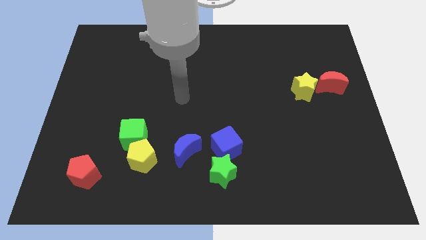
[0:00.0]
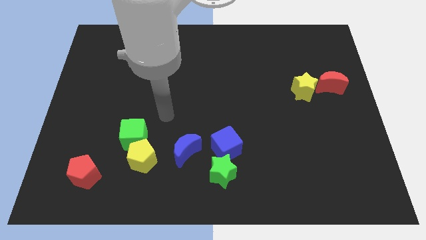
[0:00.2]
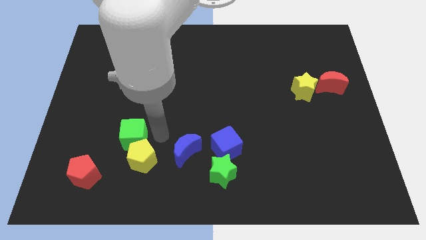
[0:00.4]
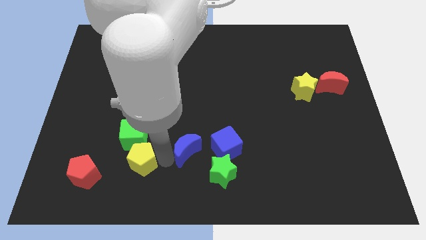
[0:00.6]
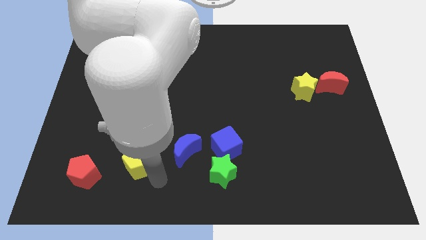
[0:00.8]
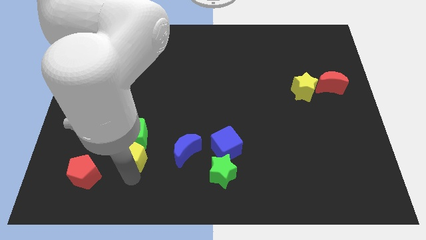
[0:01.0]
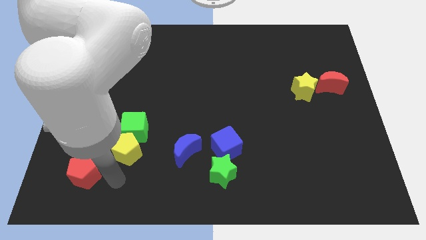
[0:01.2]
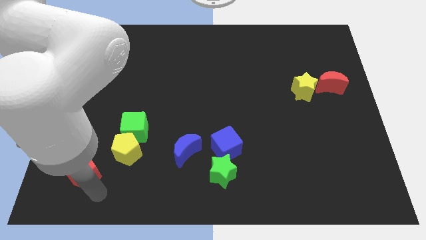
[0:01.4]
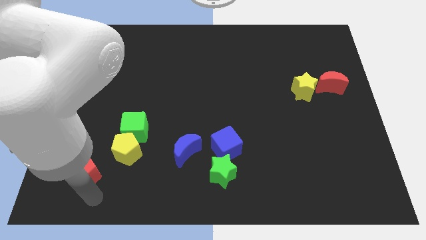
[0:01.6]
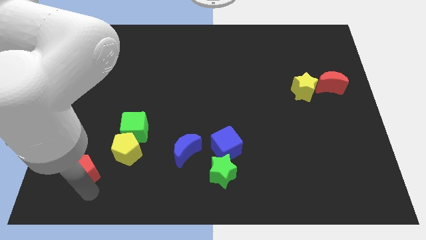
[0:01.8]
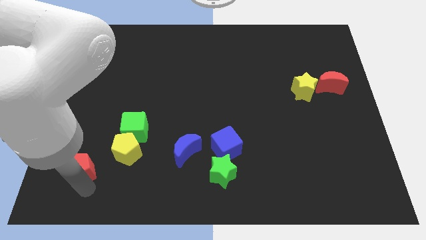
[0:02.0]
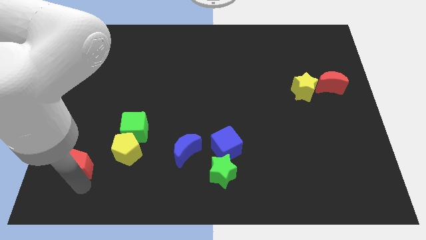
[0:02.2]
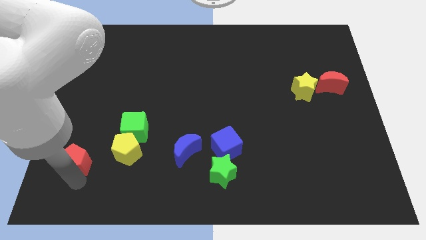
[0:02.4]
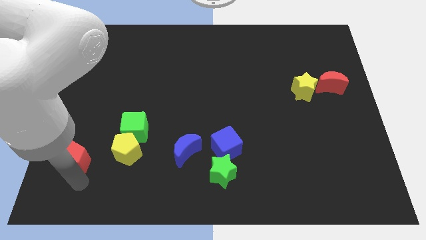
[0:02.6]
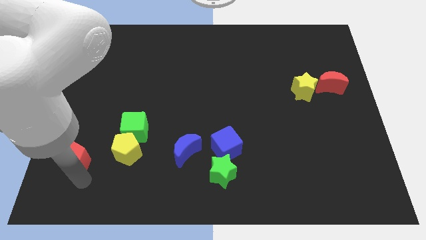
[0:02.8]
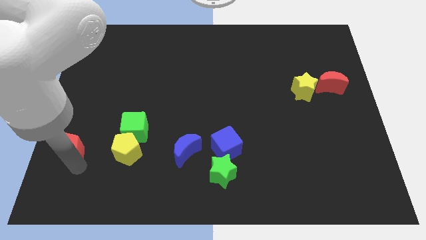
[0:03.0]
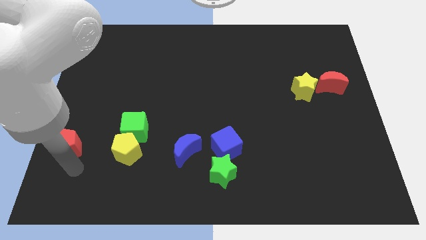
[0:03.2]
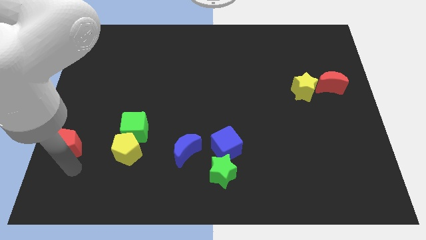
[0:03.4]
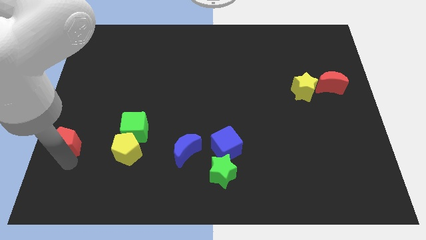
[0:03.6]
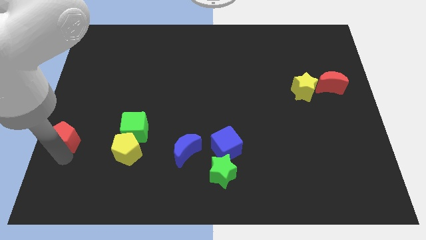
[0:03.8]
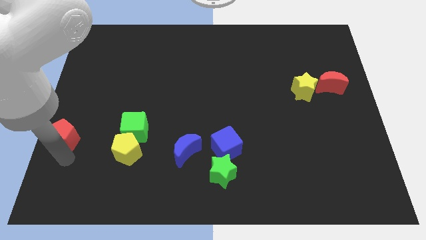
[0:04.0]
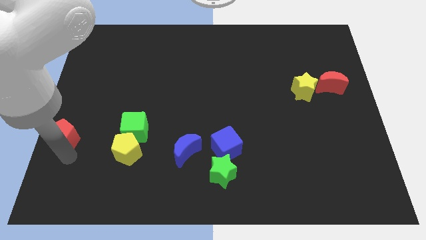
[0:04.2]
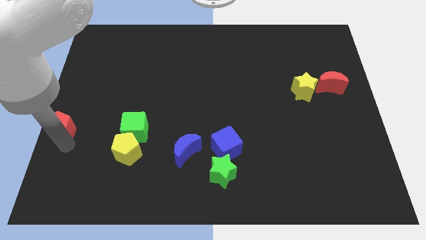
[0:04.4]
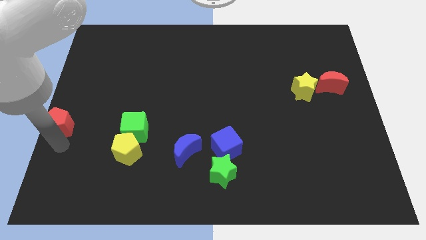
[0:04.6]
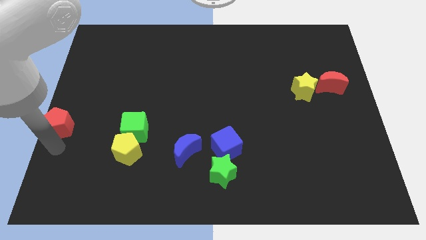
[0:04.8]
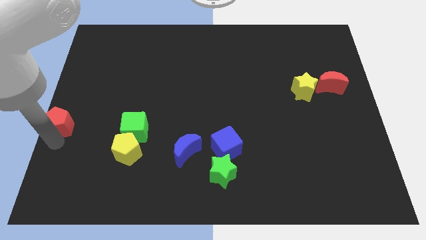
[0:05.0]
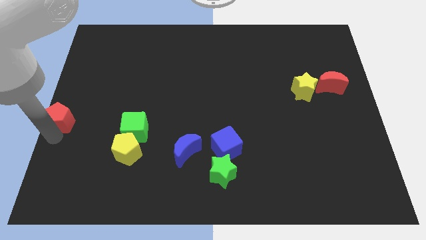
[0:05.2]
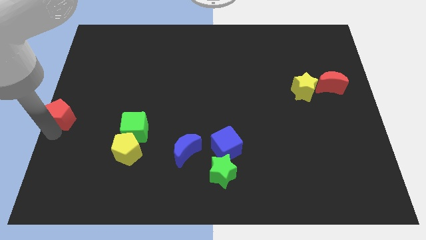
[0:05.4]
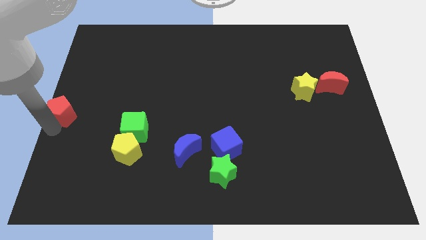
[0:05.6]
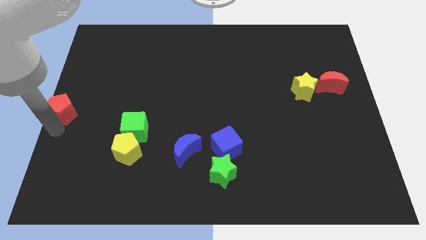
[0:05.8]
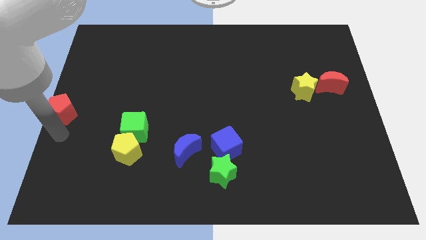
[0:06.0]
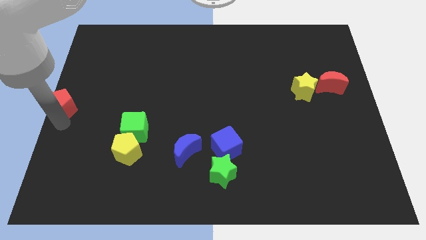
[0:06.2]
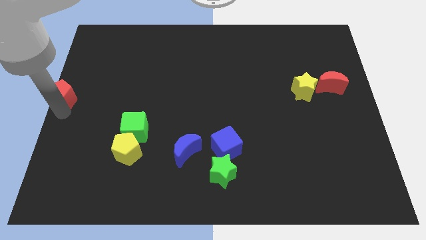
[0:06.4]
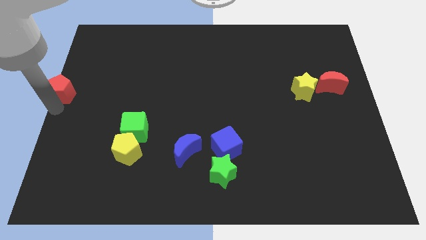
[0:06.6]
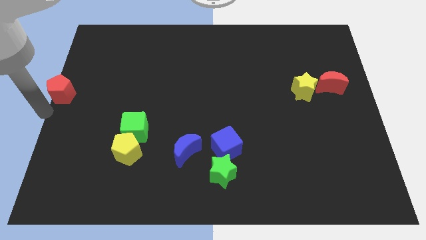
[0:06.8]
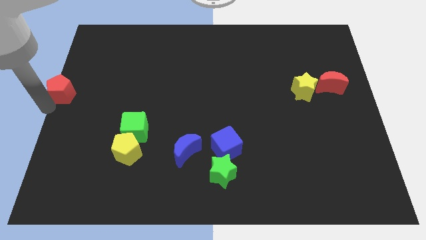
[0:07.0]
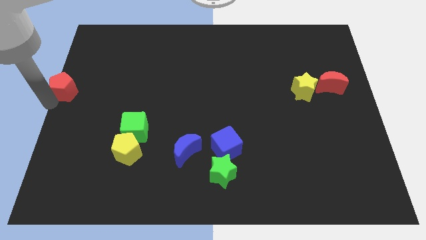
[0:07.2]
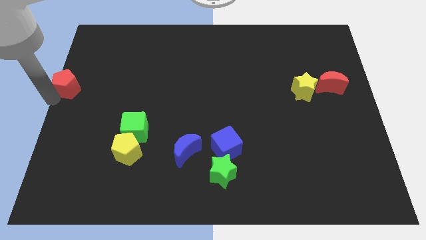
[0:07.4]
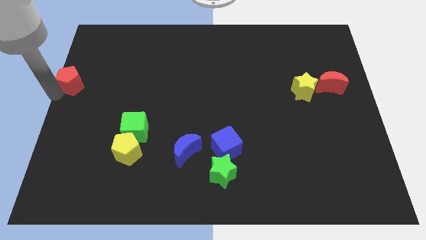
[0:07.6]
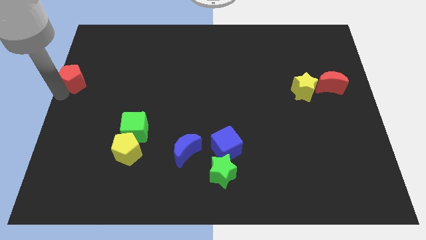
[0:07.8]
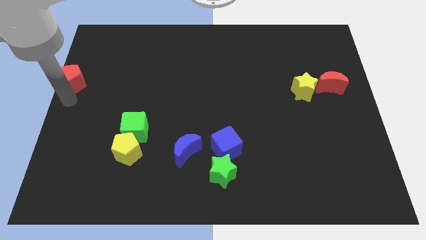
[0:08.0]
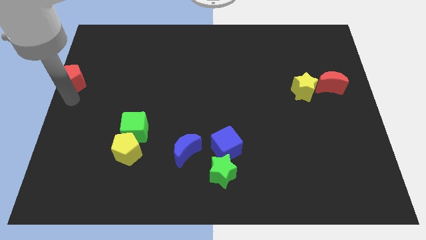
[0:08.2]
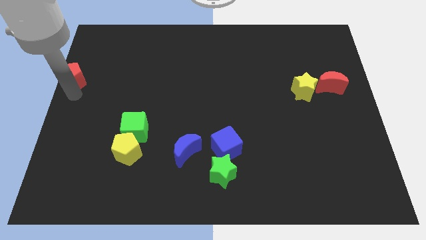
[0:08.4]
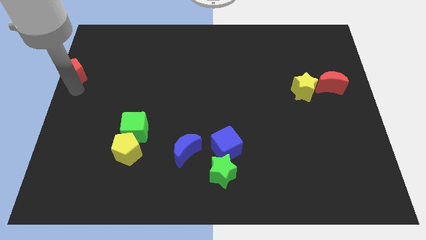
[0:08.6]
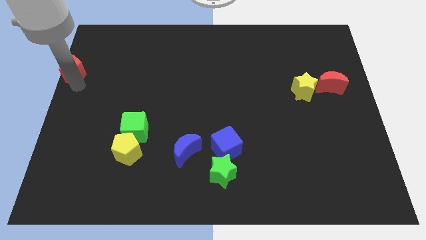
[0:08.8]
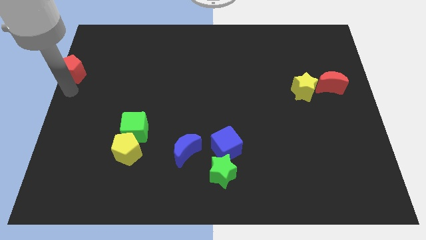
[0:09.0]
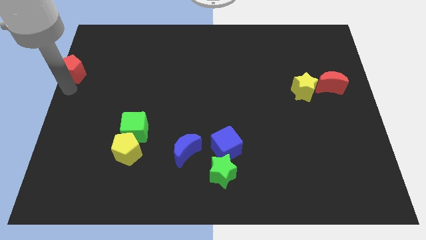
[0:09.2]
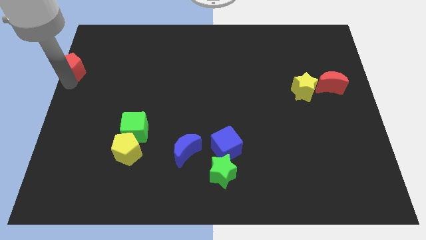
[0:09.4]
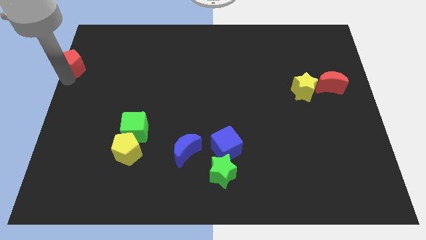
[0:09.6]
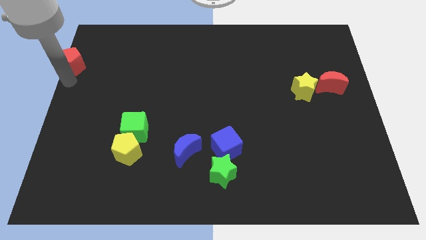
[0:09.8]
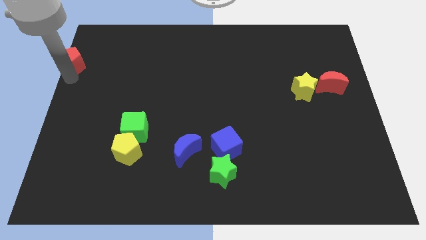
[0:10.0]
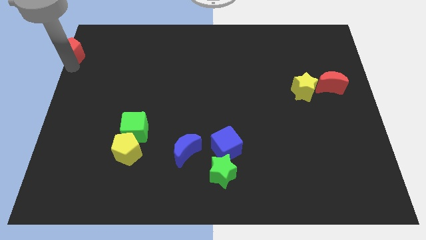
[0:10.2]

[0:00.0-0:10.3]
push the red pentagon to the top left corner

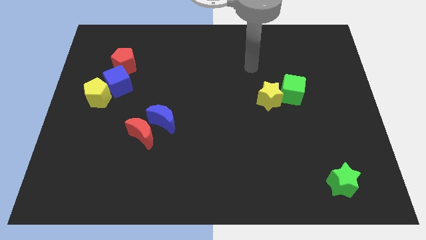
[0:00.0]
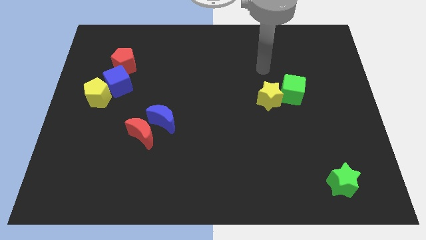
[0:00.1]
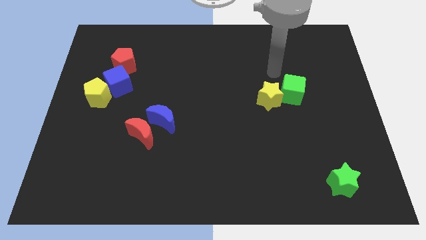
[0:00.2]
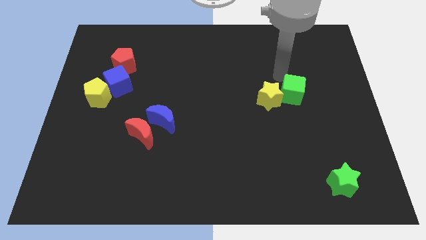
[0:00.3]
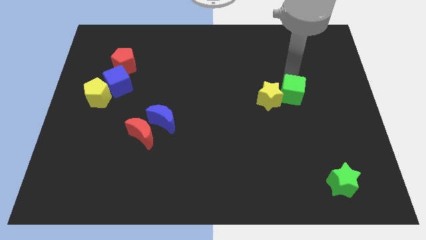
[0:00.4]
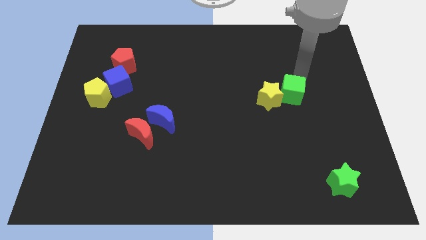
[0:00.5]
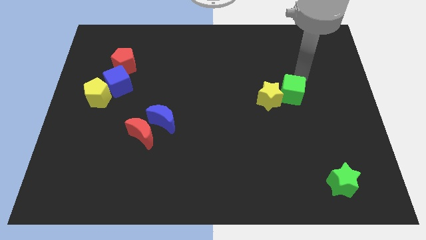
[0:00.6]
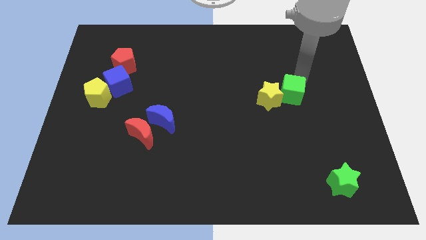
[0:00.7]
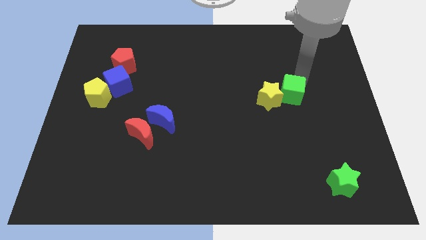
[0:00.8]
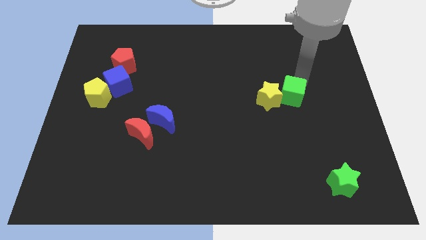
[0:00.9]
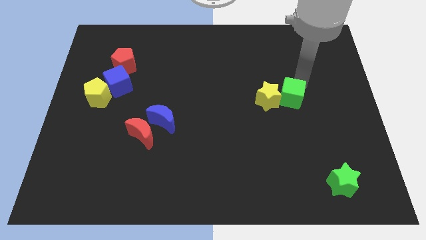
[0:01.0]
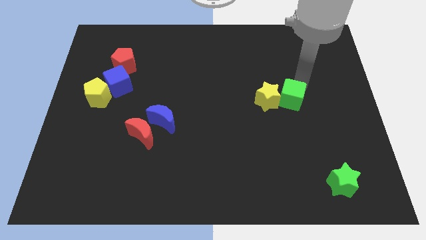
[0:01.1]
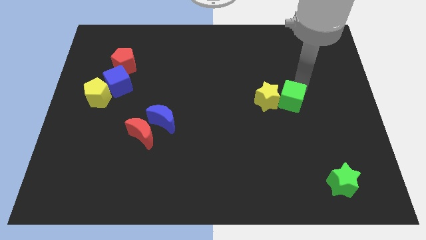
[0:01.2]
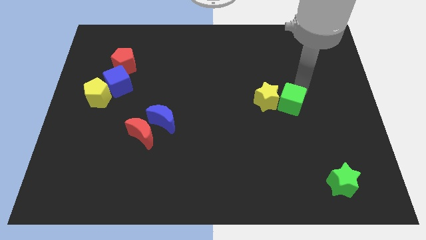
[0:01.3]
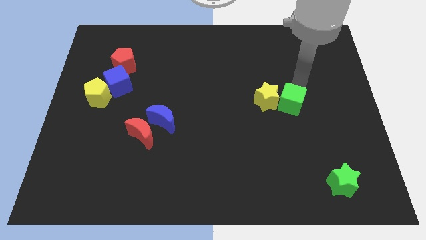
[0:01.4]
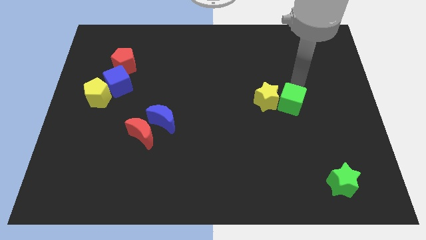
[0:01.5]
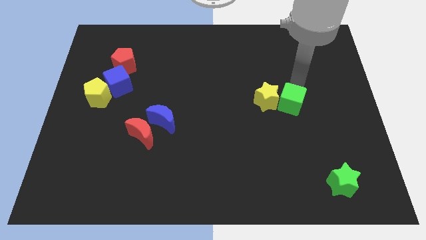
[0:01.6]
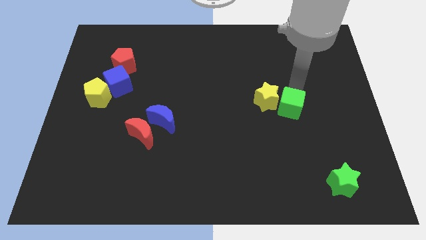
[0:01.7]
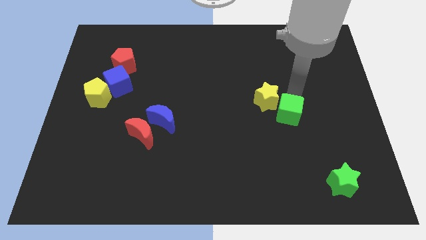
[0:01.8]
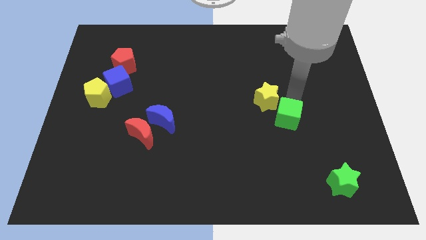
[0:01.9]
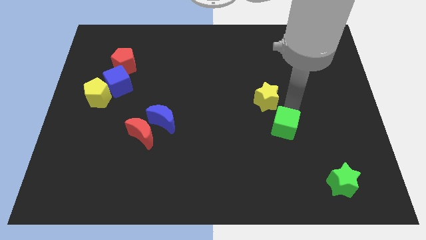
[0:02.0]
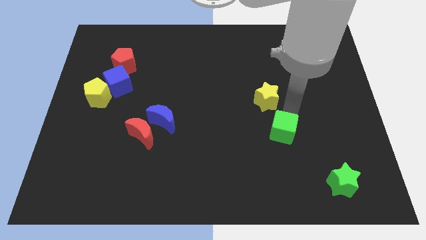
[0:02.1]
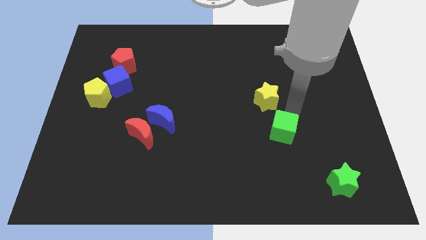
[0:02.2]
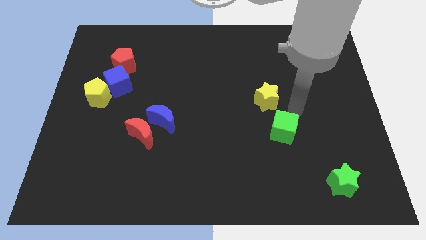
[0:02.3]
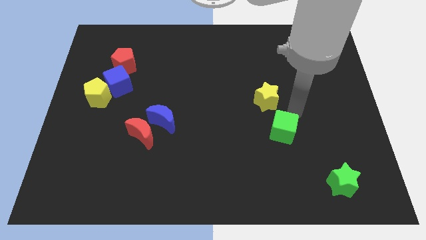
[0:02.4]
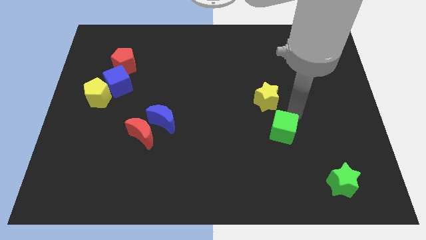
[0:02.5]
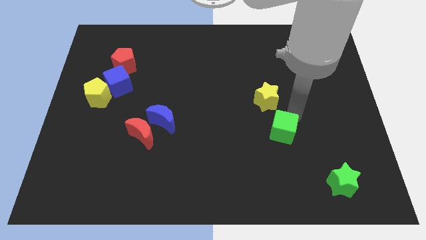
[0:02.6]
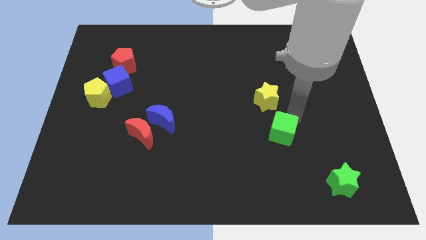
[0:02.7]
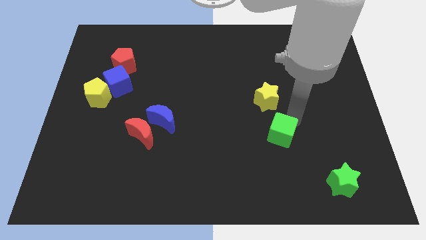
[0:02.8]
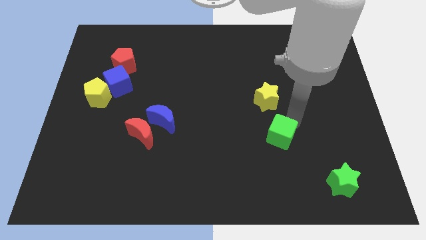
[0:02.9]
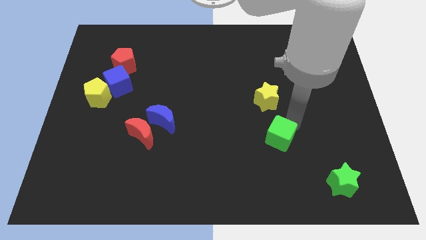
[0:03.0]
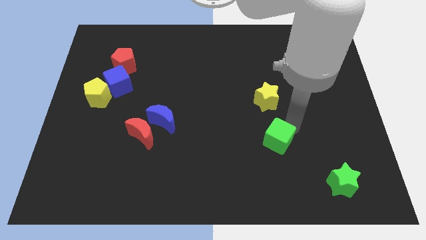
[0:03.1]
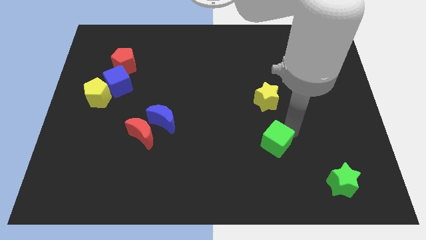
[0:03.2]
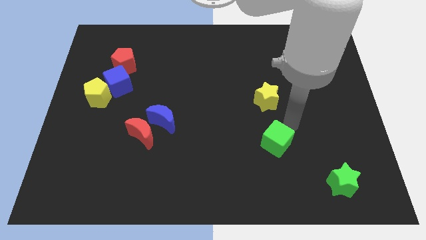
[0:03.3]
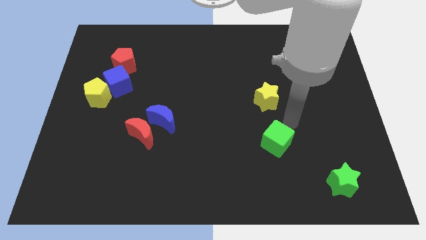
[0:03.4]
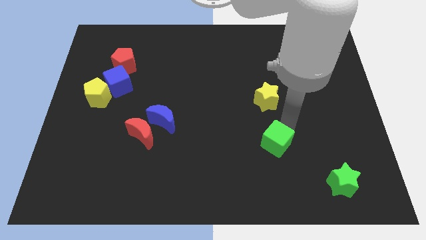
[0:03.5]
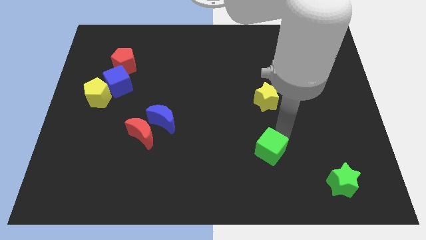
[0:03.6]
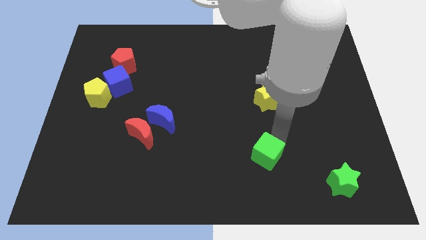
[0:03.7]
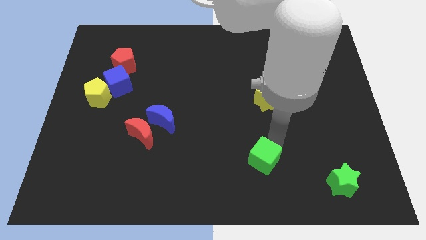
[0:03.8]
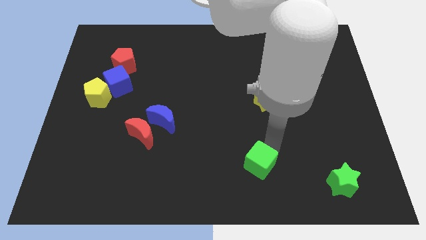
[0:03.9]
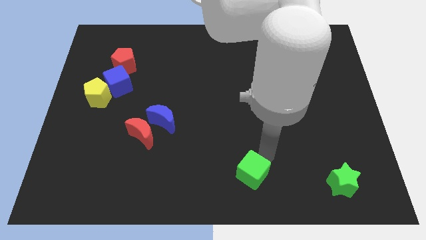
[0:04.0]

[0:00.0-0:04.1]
put the green cube to the bottom side
